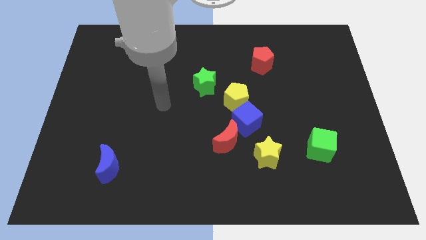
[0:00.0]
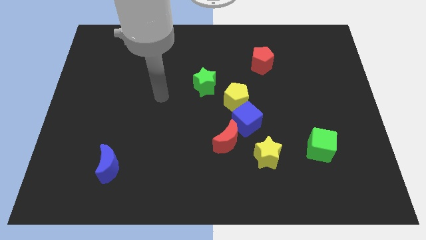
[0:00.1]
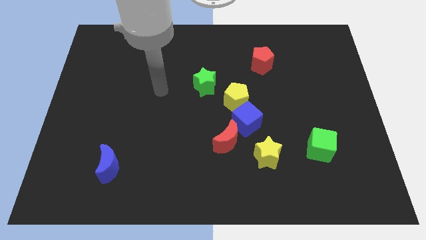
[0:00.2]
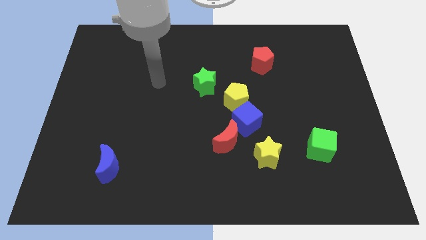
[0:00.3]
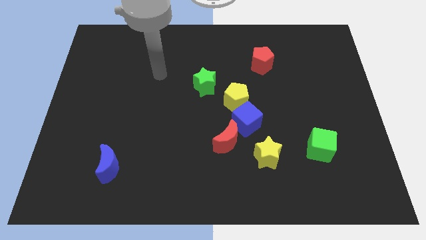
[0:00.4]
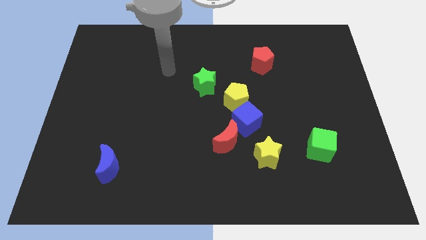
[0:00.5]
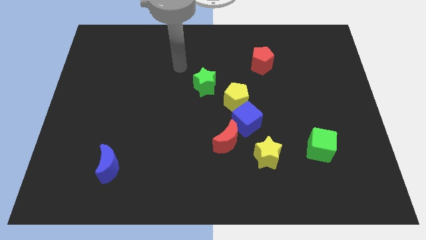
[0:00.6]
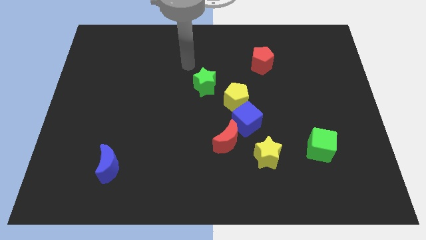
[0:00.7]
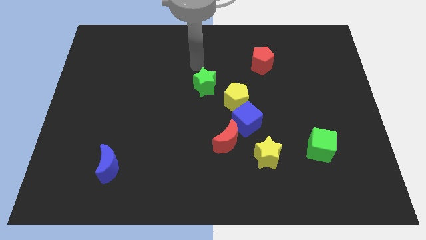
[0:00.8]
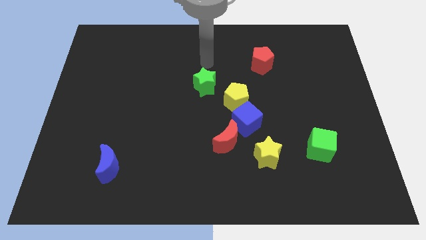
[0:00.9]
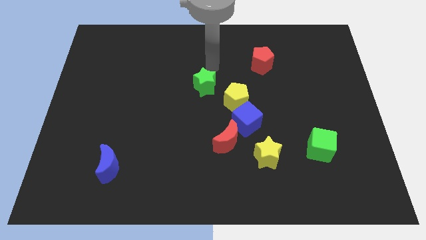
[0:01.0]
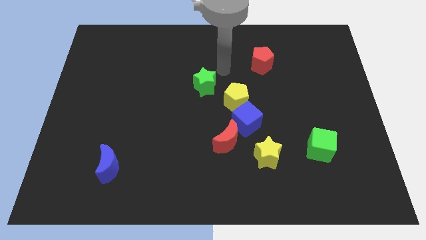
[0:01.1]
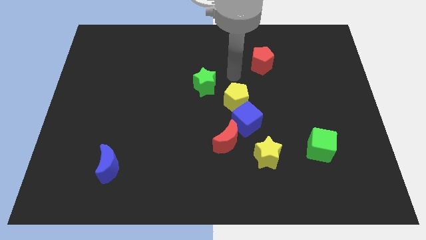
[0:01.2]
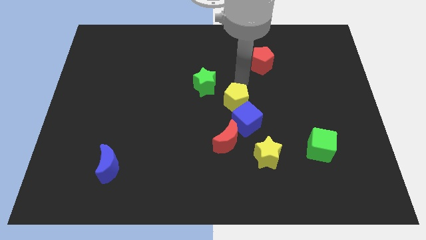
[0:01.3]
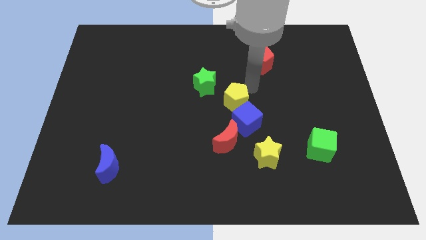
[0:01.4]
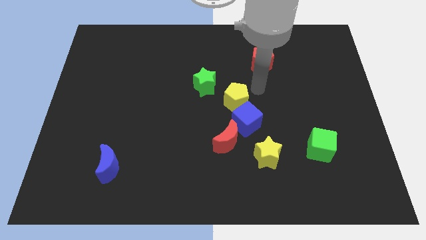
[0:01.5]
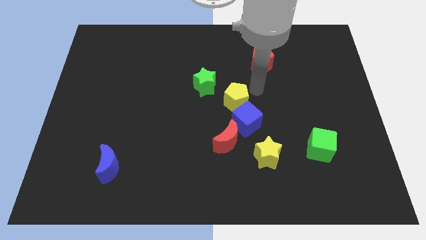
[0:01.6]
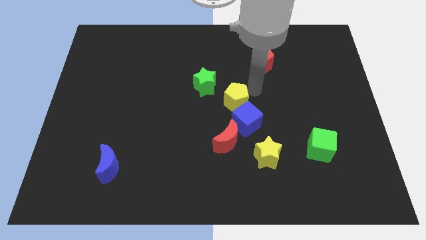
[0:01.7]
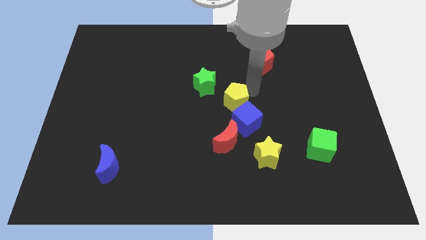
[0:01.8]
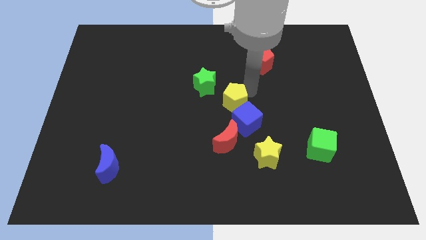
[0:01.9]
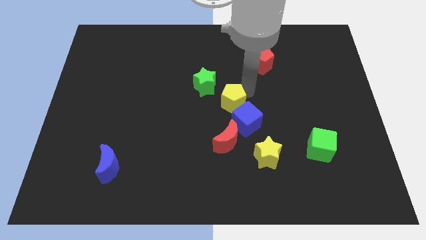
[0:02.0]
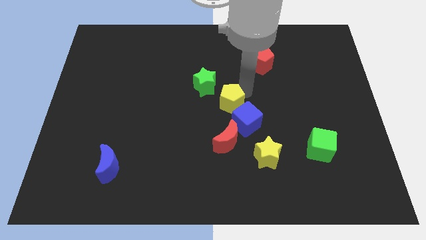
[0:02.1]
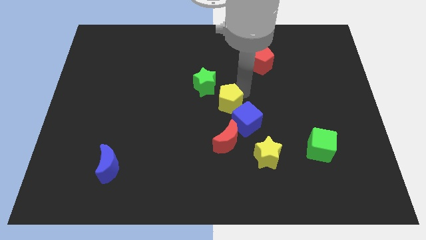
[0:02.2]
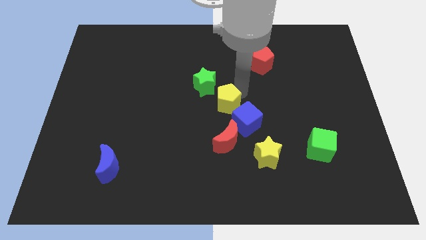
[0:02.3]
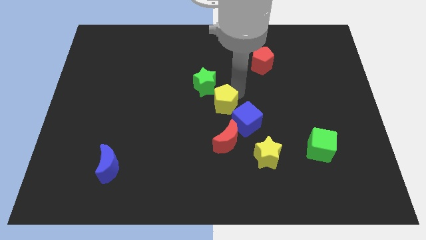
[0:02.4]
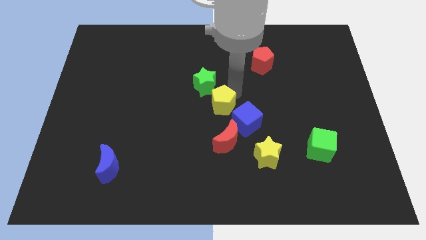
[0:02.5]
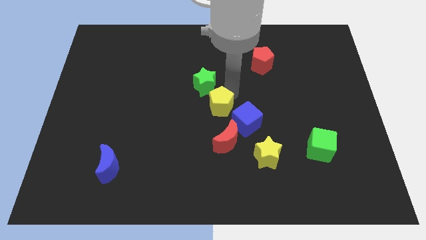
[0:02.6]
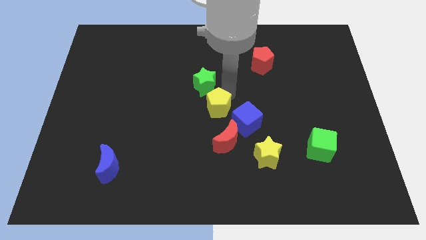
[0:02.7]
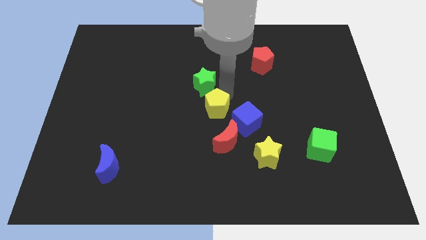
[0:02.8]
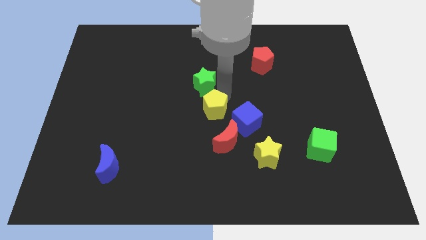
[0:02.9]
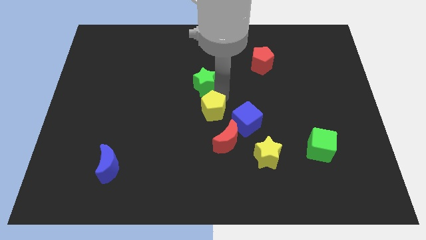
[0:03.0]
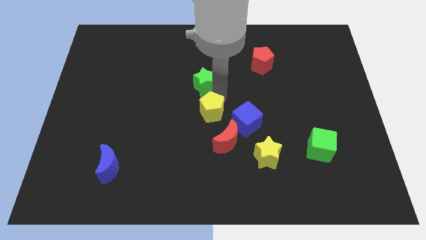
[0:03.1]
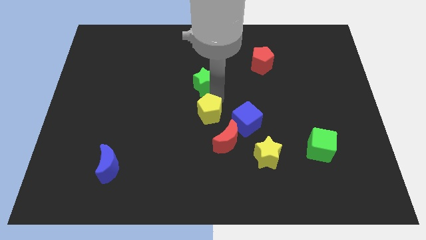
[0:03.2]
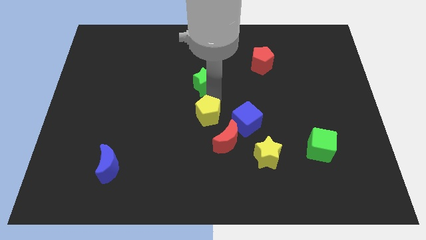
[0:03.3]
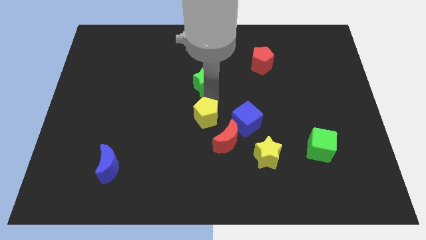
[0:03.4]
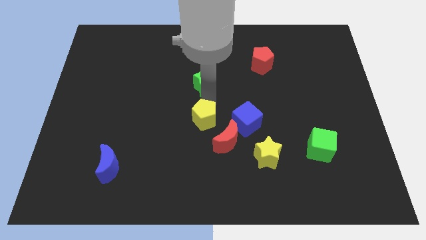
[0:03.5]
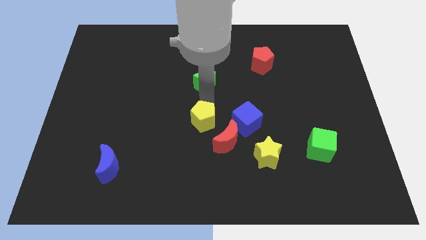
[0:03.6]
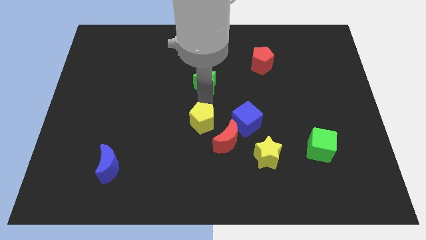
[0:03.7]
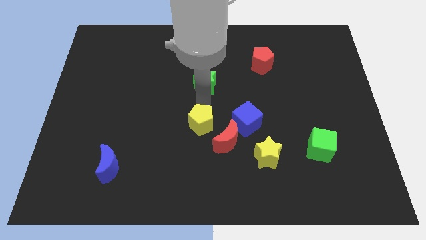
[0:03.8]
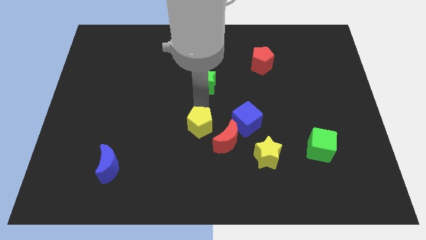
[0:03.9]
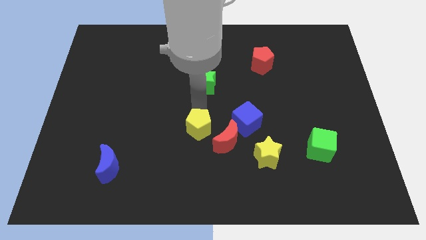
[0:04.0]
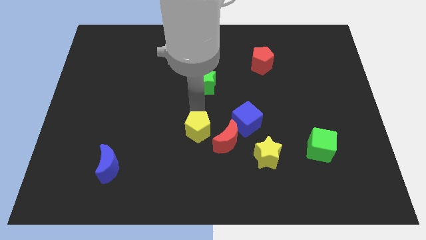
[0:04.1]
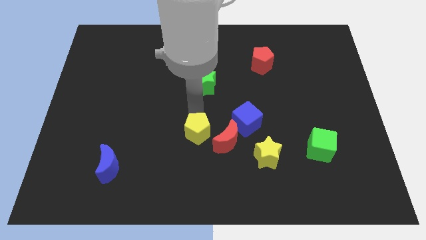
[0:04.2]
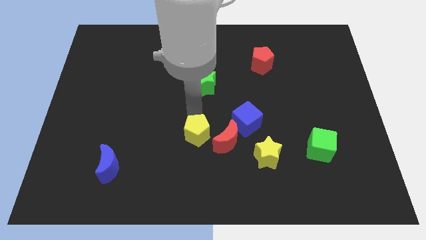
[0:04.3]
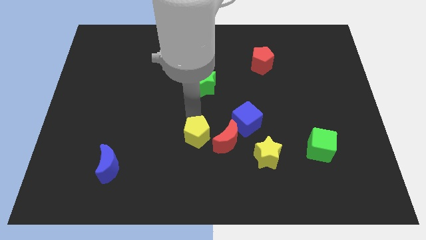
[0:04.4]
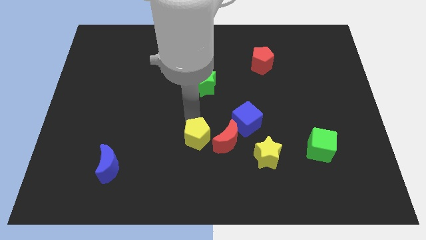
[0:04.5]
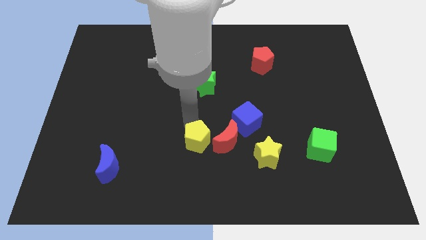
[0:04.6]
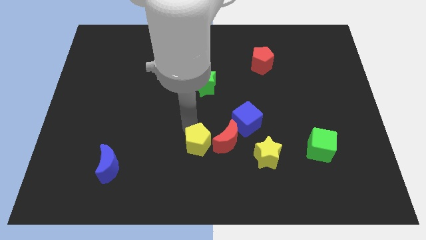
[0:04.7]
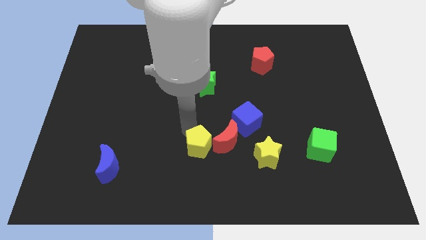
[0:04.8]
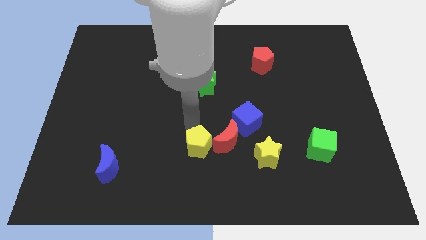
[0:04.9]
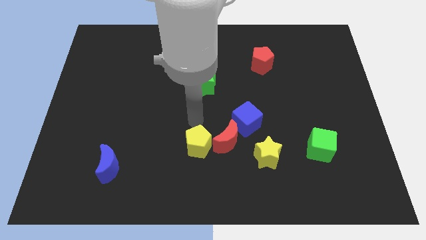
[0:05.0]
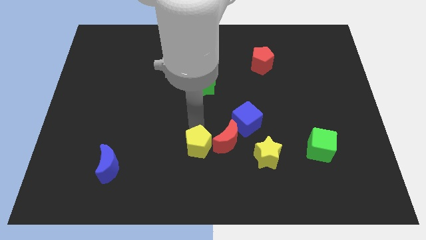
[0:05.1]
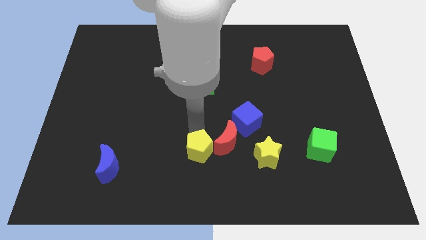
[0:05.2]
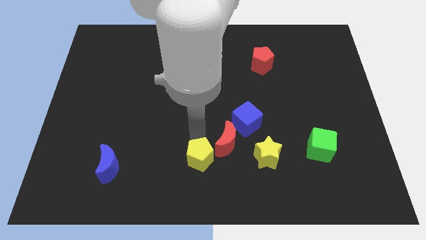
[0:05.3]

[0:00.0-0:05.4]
move the yellow pentagon to the bottom
